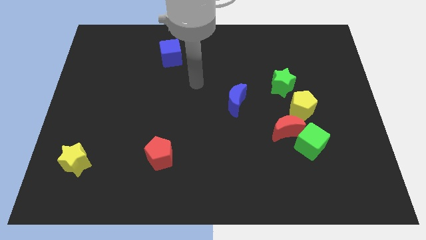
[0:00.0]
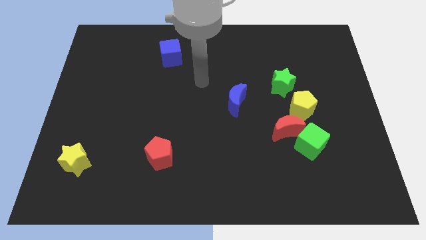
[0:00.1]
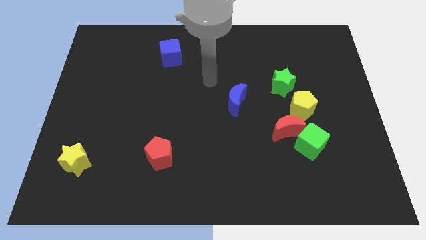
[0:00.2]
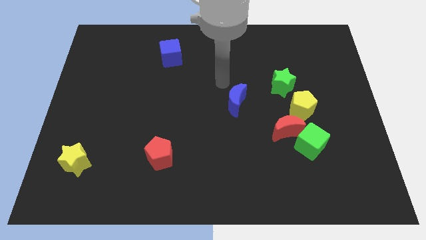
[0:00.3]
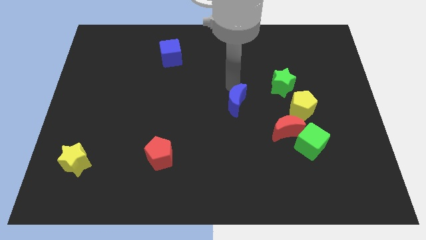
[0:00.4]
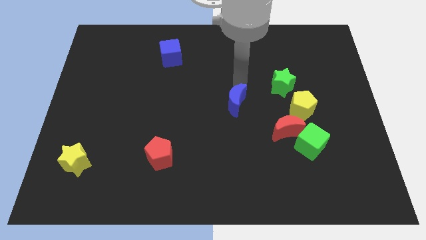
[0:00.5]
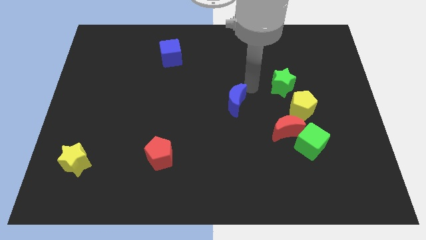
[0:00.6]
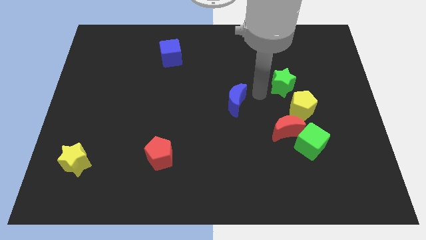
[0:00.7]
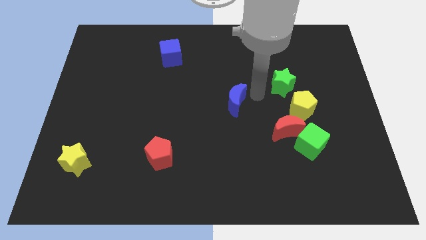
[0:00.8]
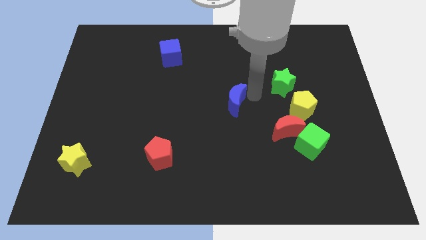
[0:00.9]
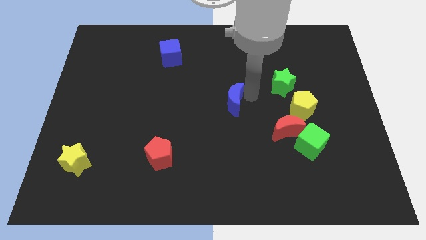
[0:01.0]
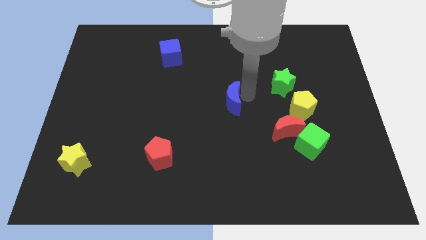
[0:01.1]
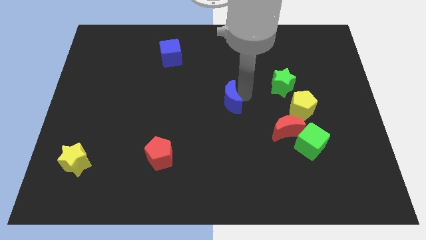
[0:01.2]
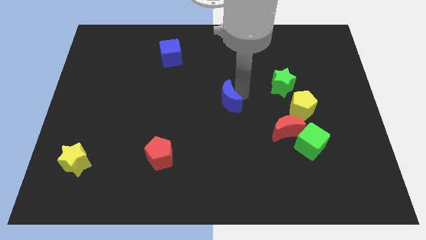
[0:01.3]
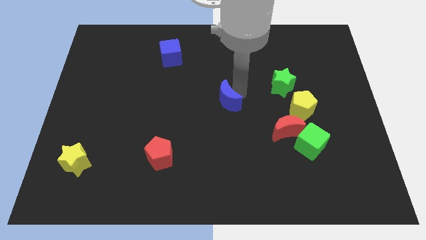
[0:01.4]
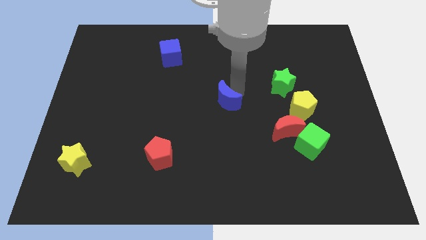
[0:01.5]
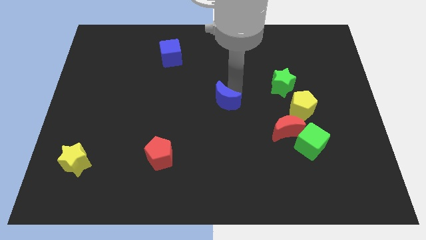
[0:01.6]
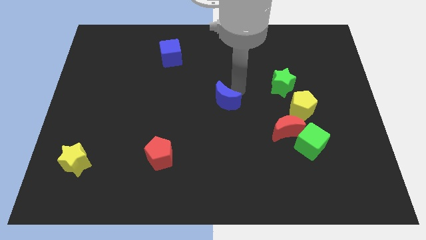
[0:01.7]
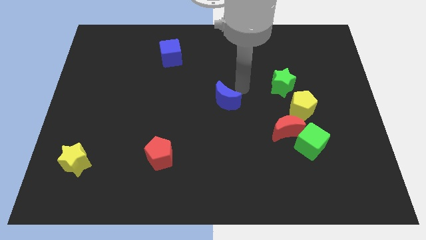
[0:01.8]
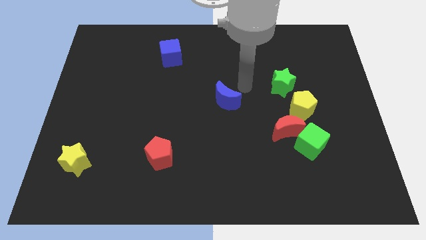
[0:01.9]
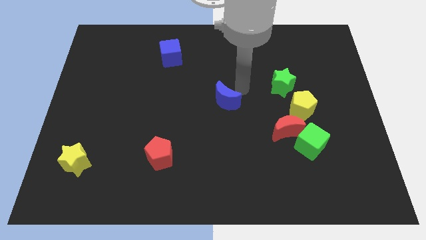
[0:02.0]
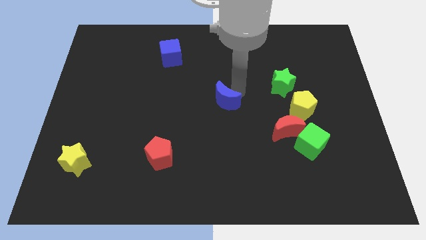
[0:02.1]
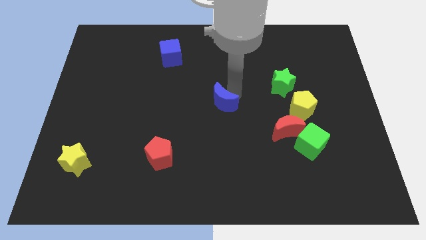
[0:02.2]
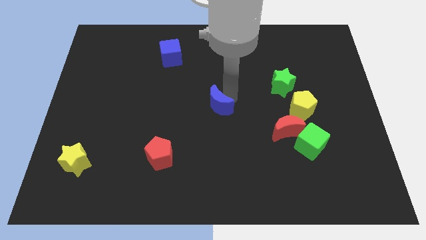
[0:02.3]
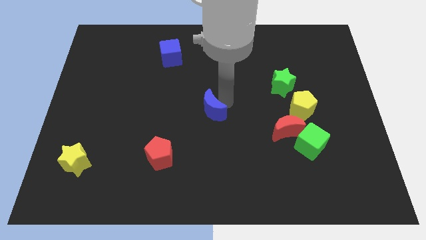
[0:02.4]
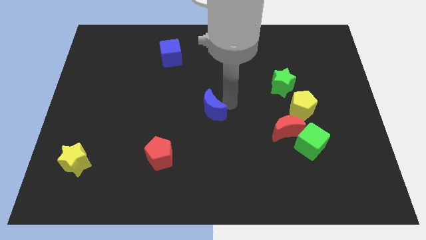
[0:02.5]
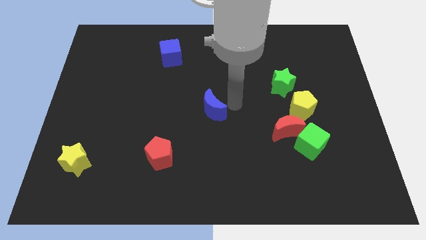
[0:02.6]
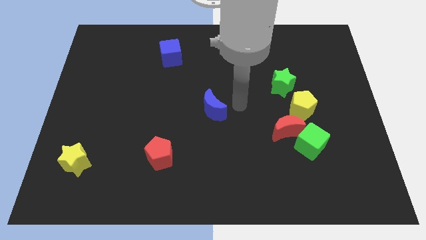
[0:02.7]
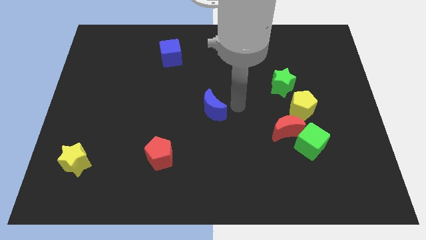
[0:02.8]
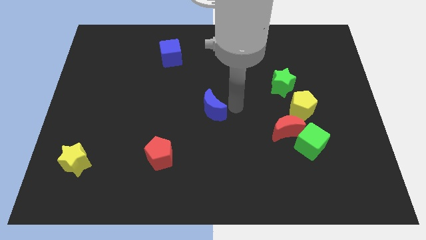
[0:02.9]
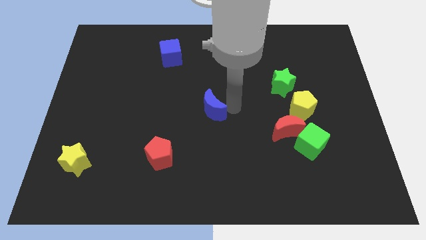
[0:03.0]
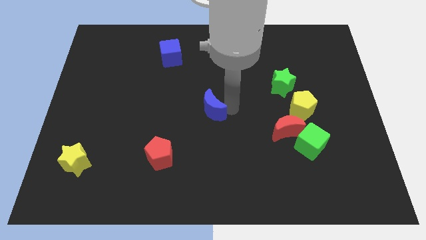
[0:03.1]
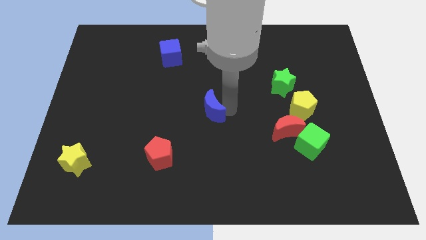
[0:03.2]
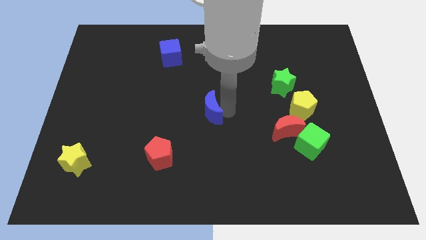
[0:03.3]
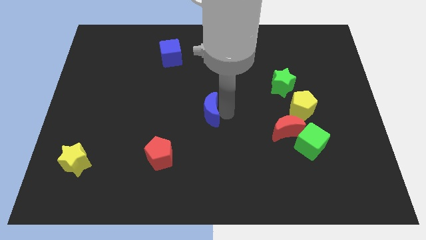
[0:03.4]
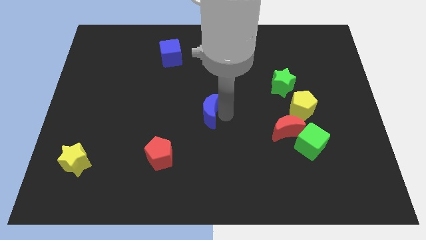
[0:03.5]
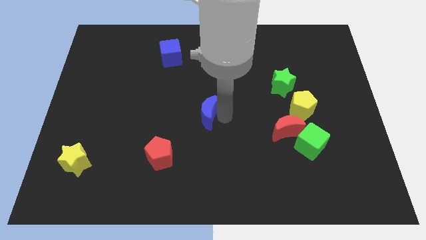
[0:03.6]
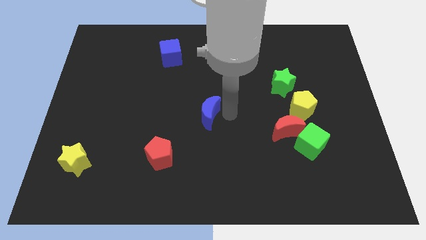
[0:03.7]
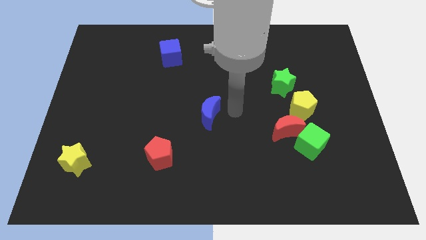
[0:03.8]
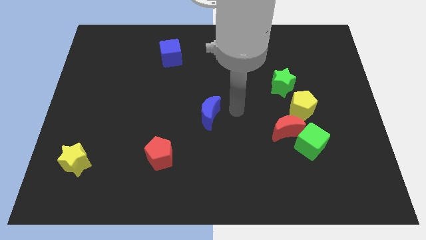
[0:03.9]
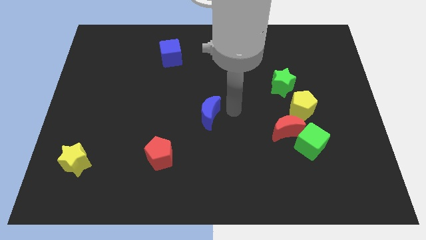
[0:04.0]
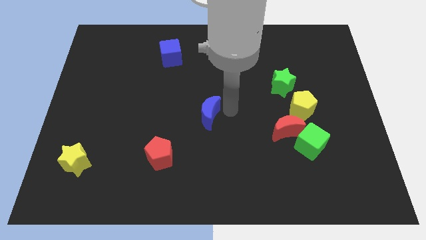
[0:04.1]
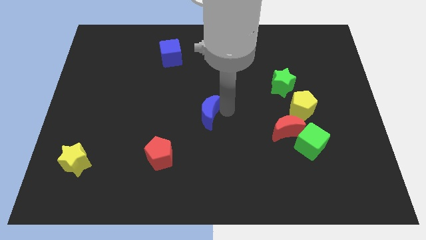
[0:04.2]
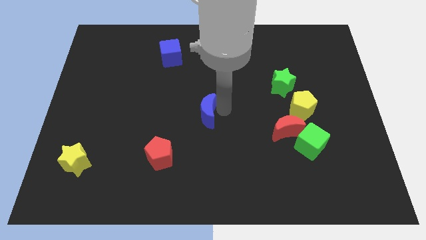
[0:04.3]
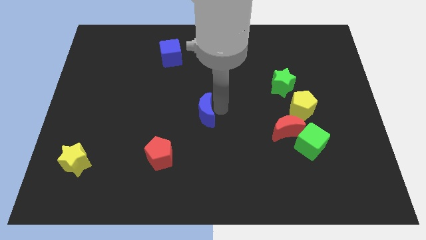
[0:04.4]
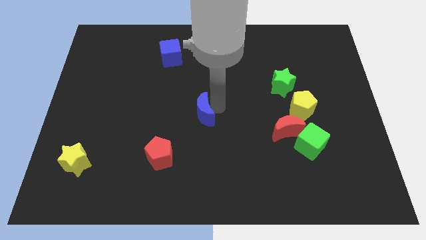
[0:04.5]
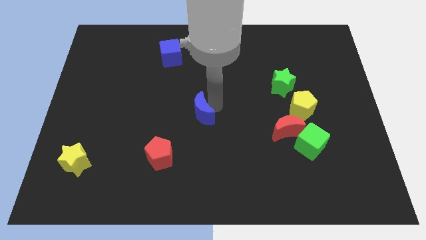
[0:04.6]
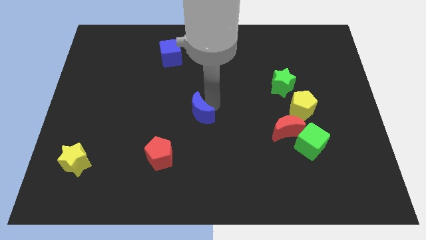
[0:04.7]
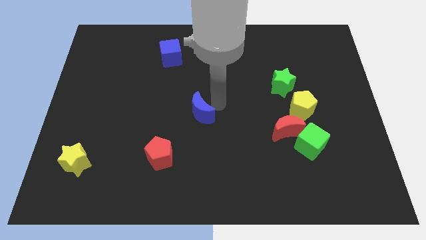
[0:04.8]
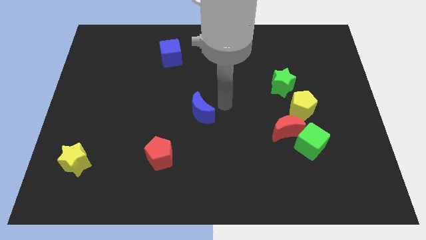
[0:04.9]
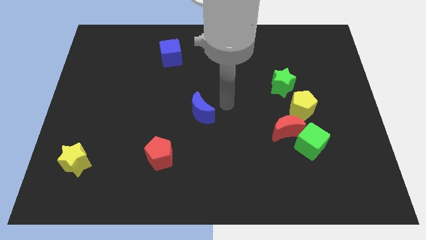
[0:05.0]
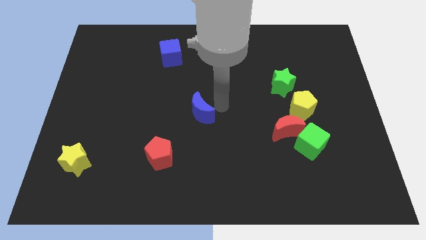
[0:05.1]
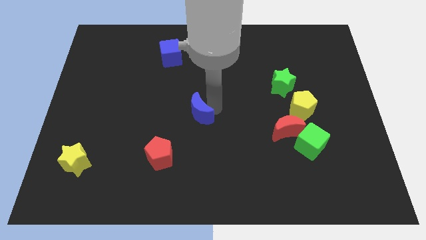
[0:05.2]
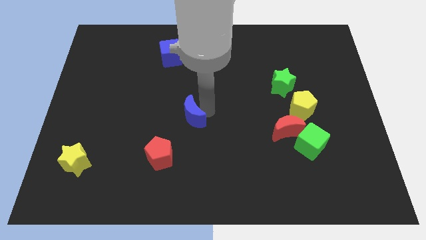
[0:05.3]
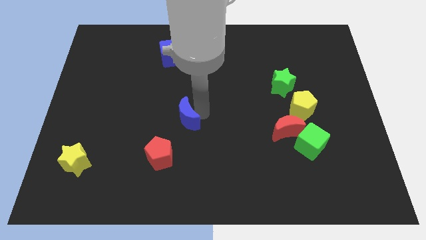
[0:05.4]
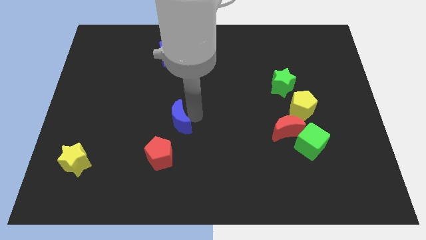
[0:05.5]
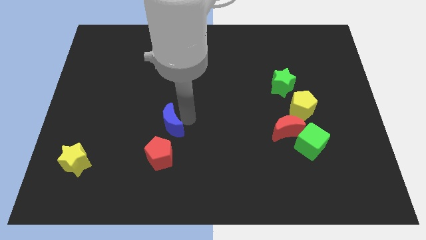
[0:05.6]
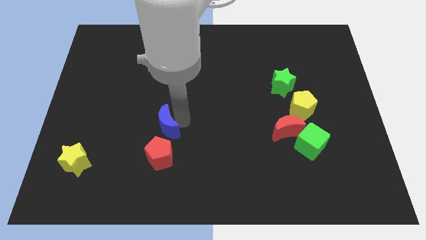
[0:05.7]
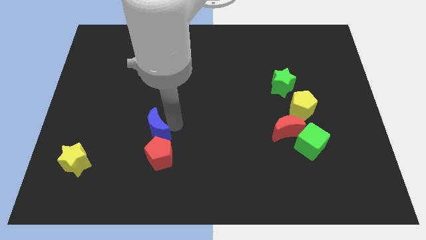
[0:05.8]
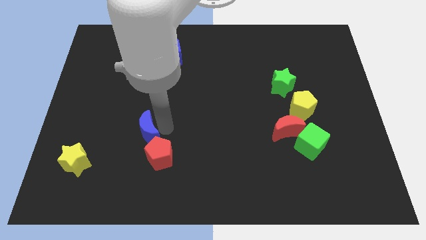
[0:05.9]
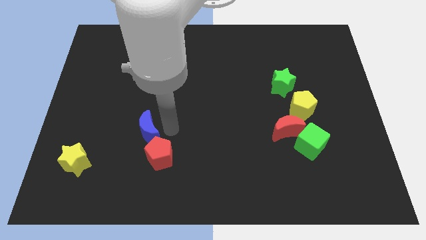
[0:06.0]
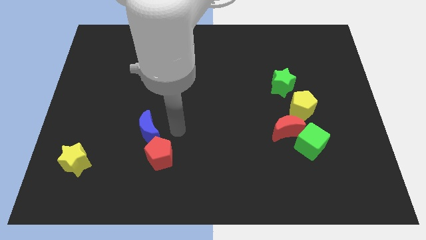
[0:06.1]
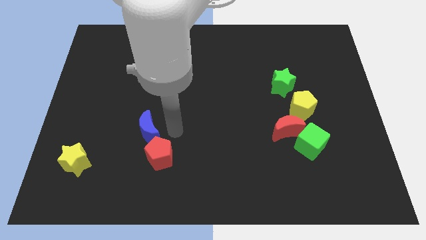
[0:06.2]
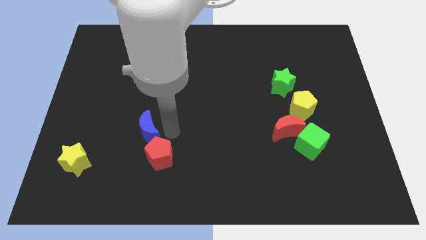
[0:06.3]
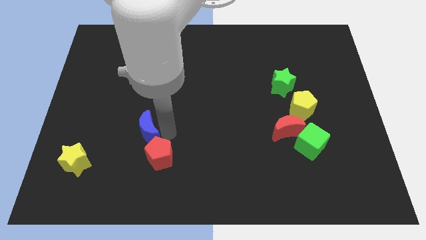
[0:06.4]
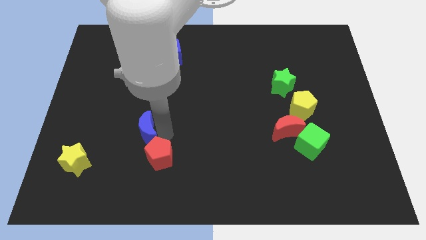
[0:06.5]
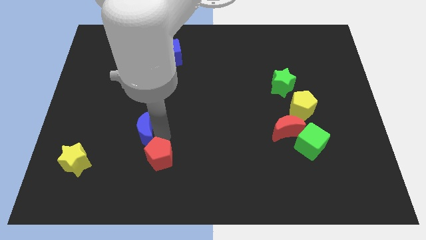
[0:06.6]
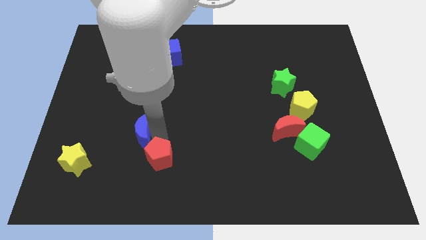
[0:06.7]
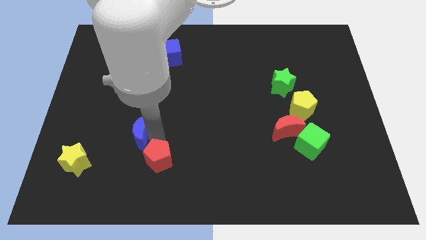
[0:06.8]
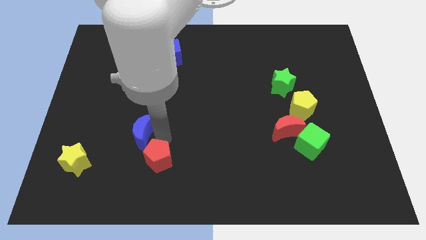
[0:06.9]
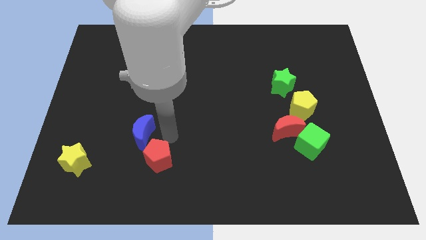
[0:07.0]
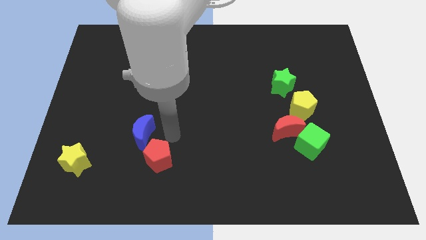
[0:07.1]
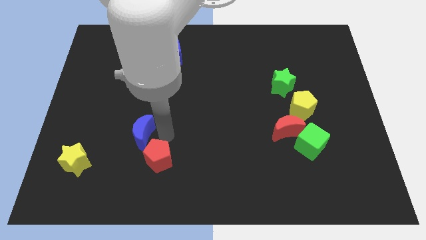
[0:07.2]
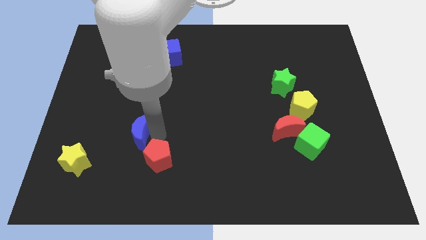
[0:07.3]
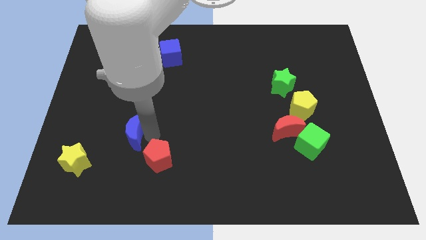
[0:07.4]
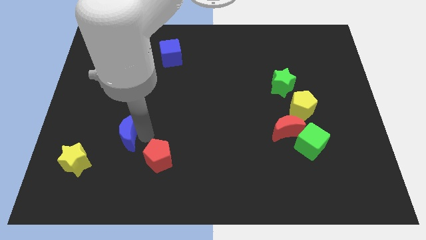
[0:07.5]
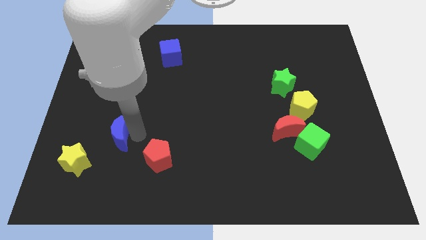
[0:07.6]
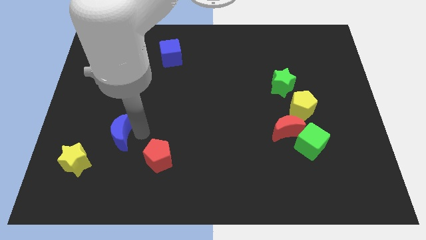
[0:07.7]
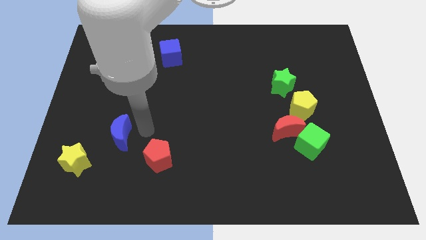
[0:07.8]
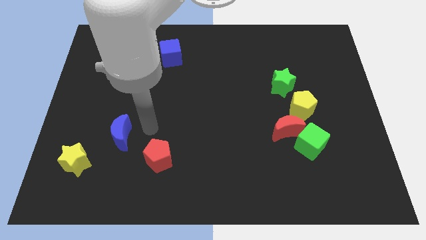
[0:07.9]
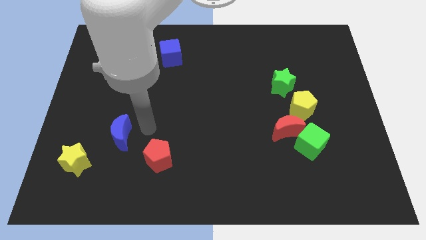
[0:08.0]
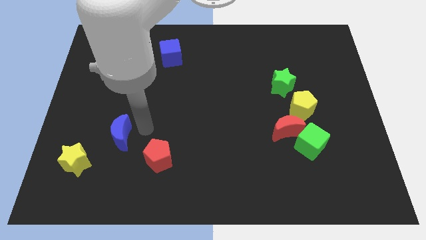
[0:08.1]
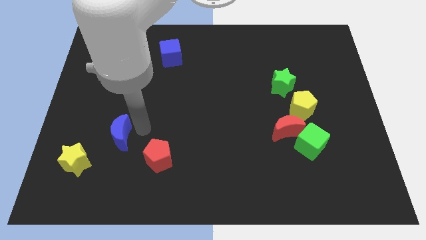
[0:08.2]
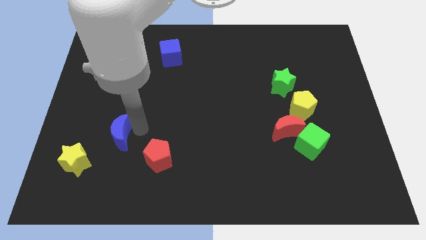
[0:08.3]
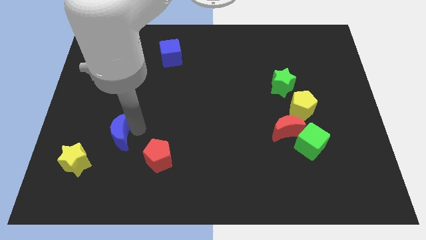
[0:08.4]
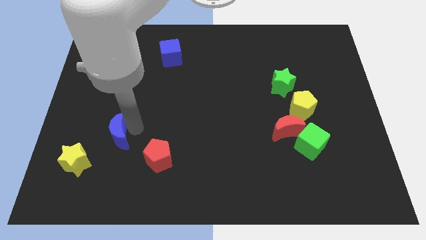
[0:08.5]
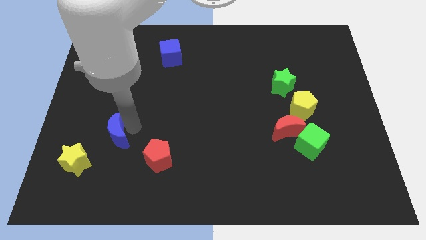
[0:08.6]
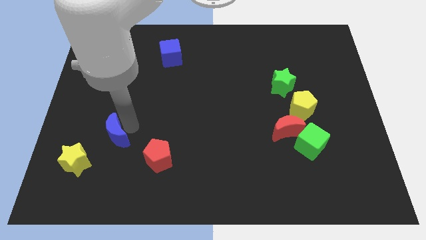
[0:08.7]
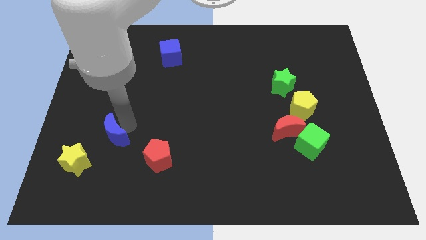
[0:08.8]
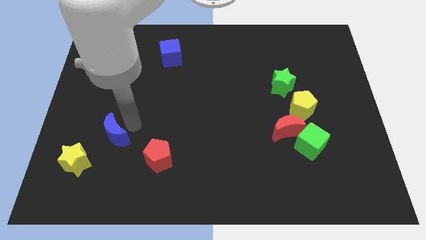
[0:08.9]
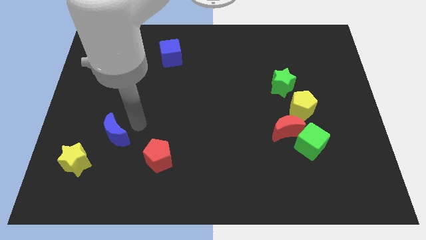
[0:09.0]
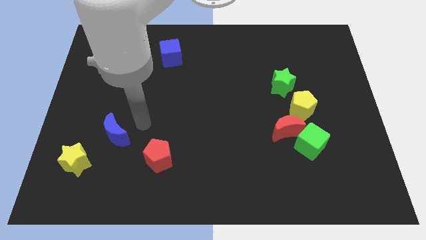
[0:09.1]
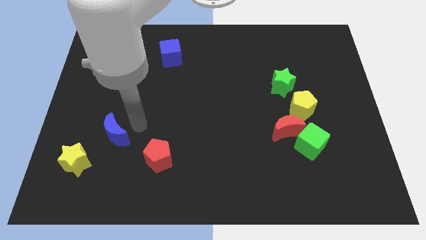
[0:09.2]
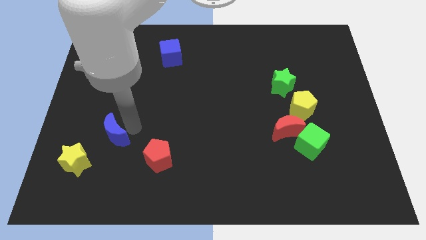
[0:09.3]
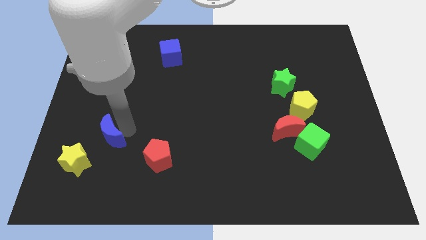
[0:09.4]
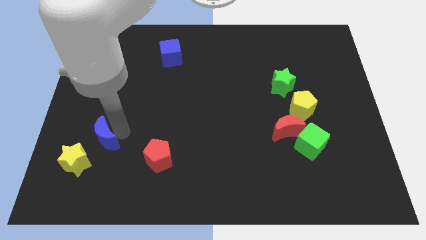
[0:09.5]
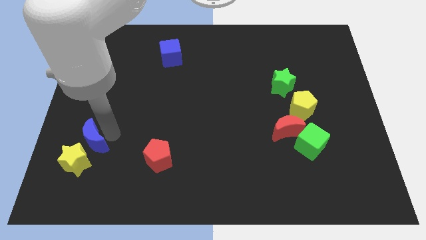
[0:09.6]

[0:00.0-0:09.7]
slide the blue moon to the yellow star
